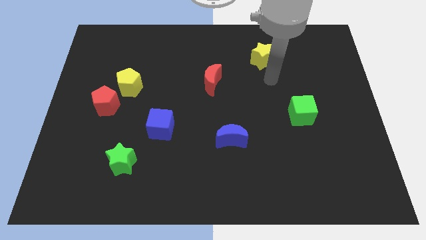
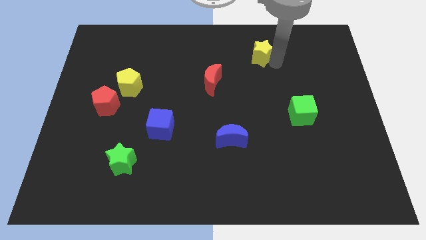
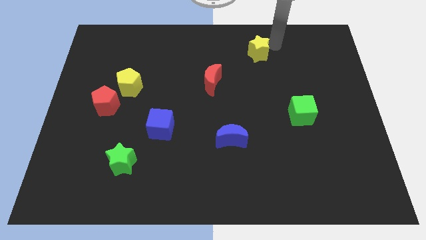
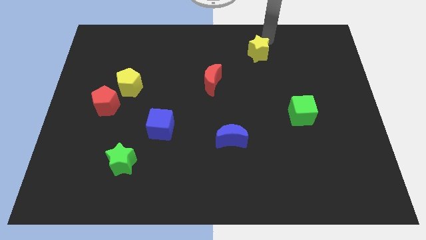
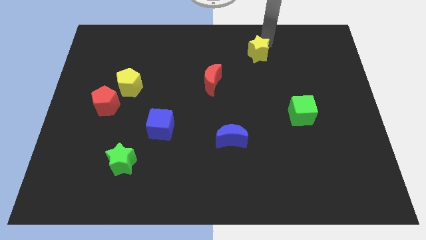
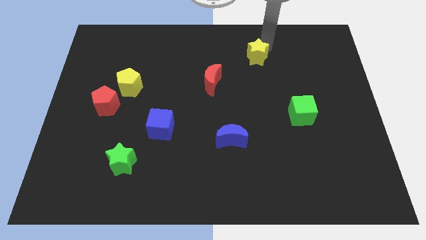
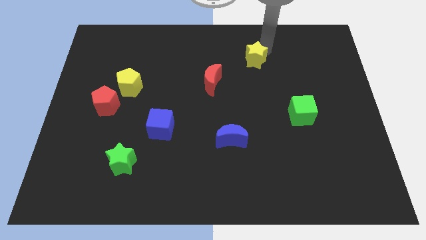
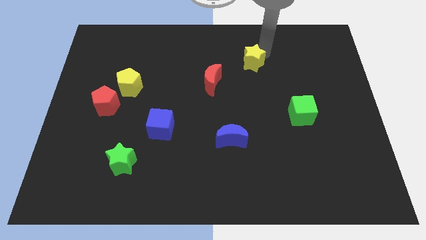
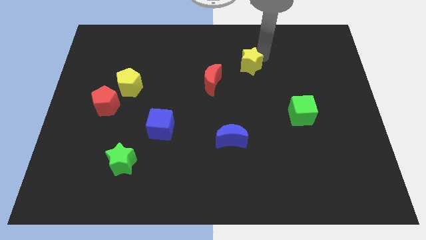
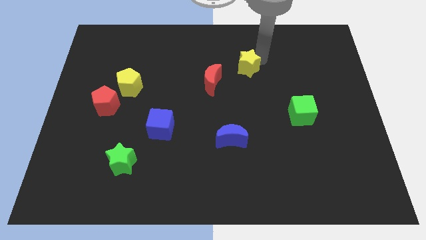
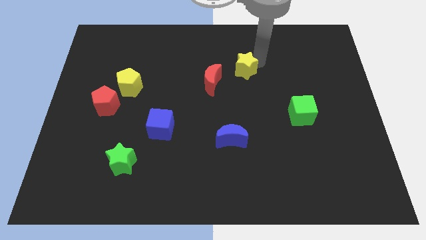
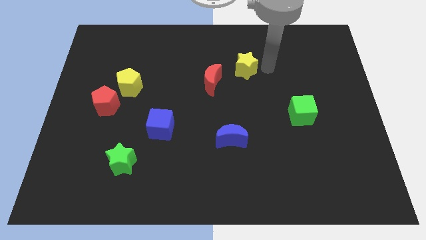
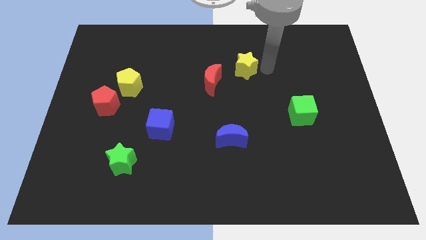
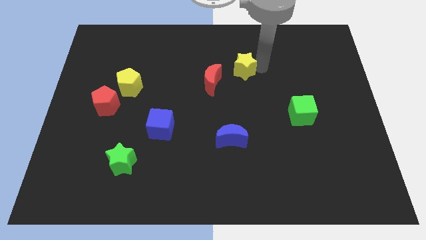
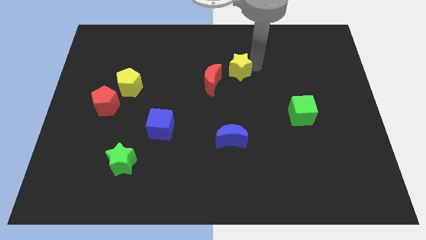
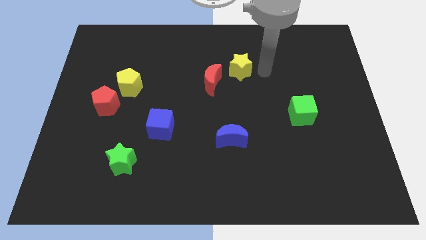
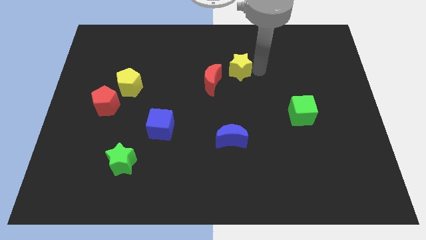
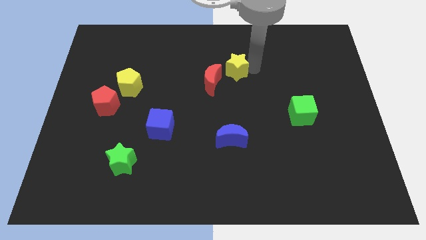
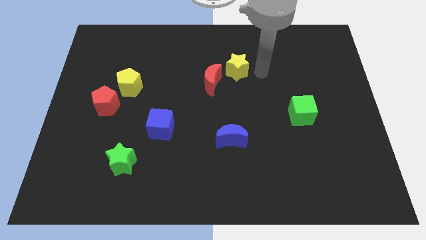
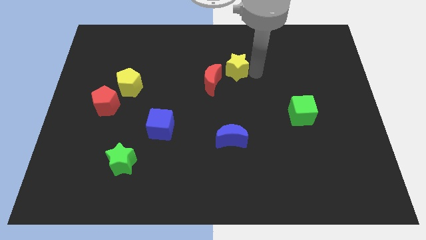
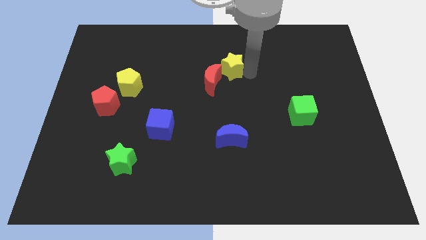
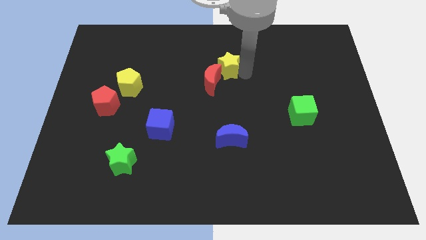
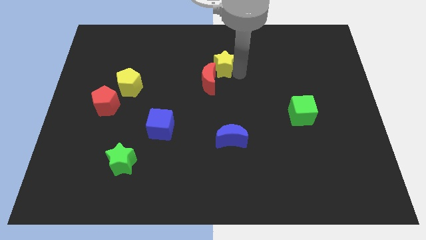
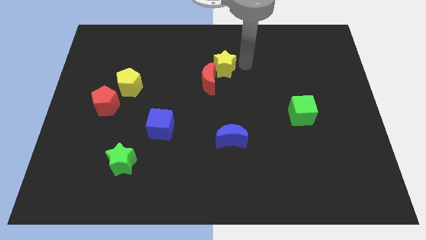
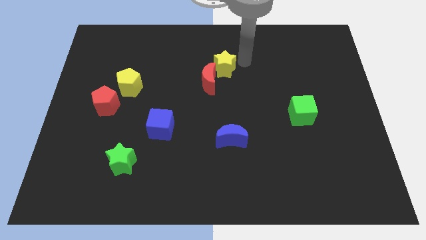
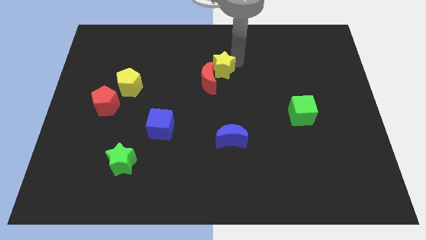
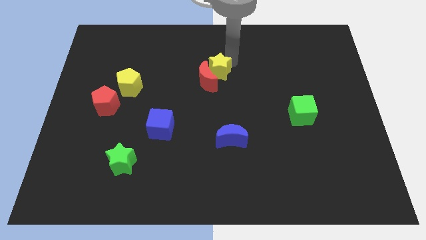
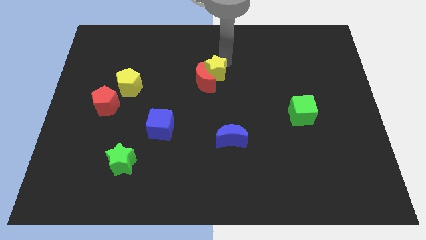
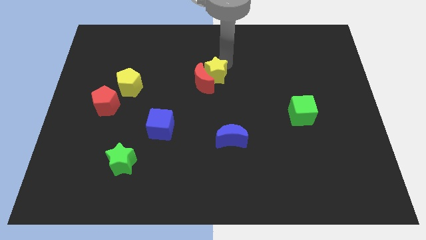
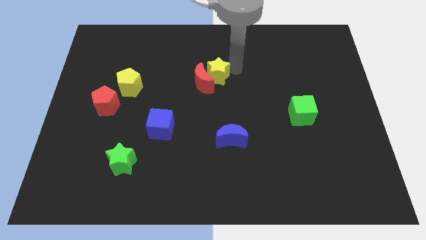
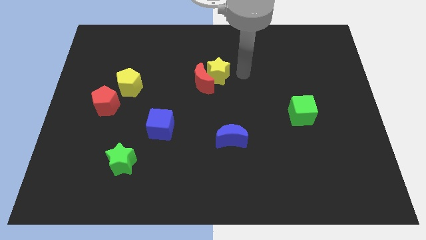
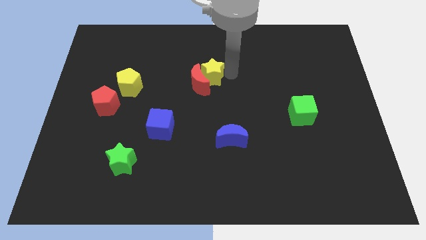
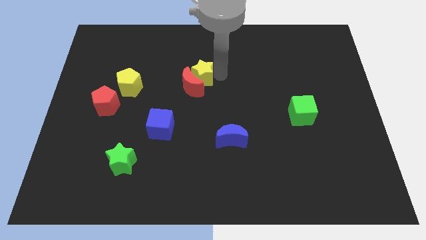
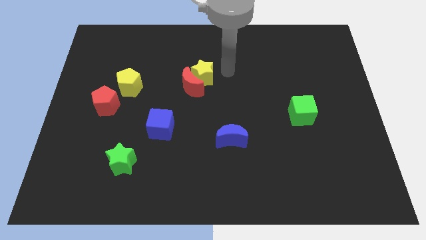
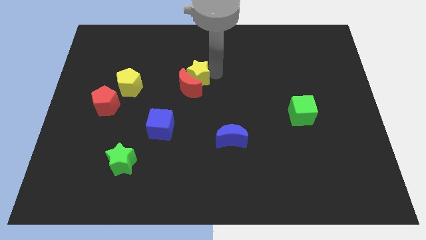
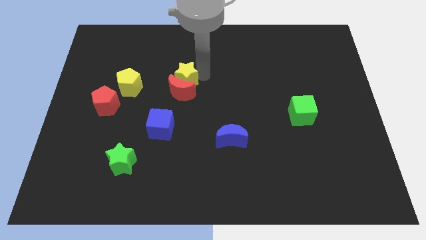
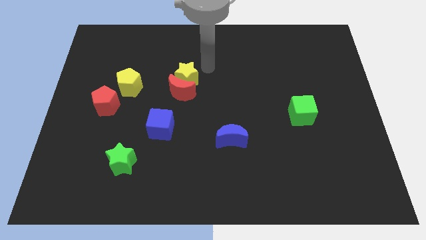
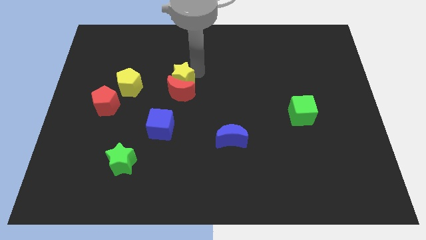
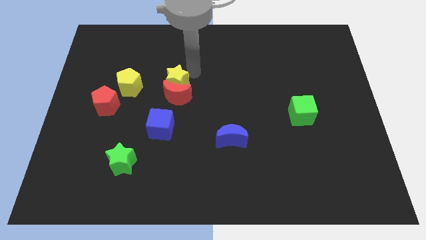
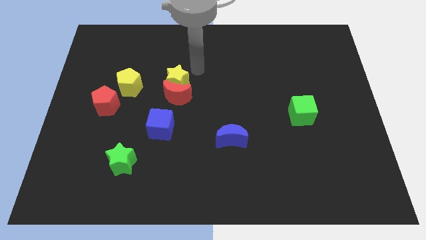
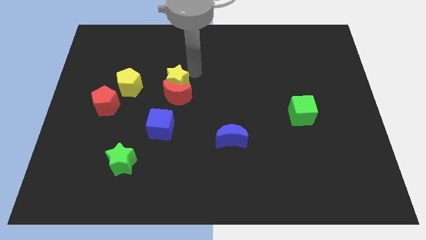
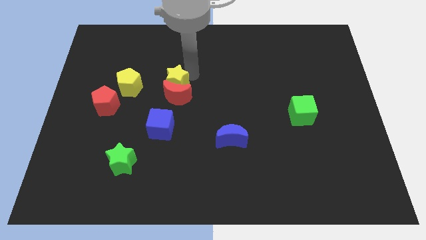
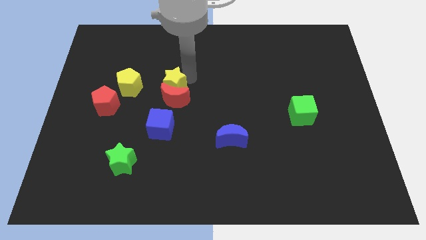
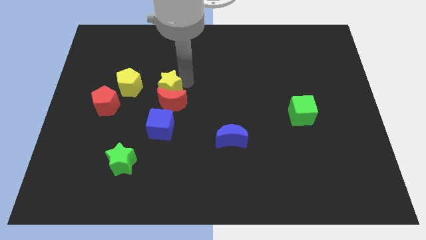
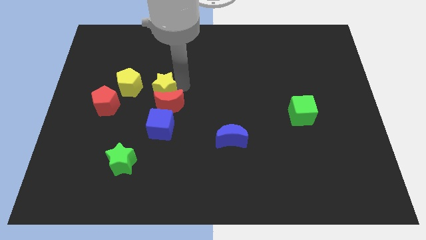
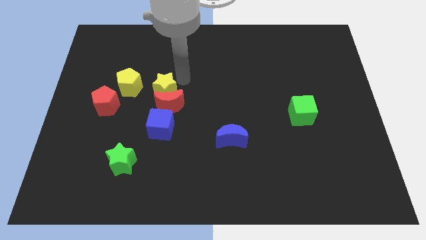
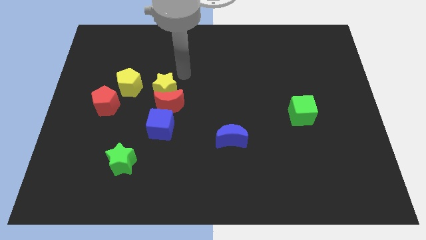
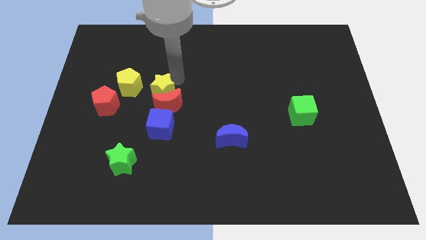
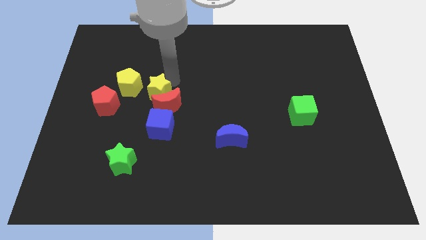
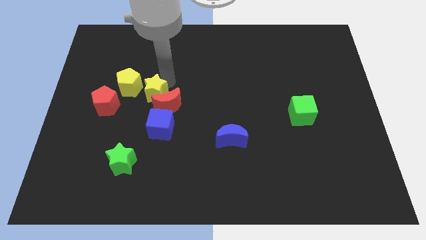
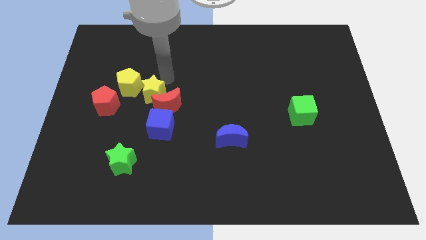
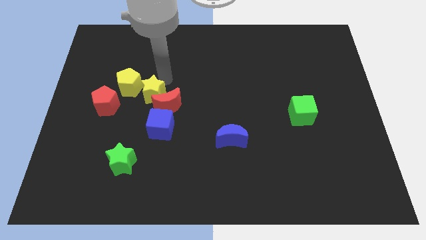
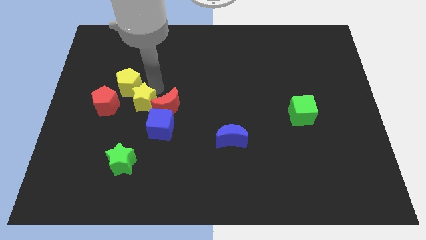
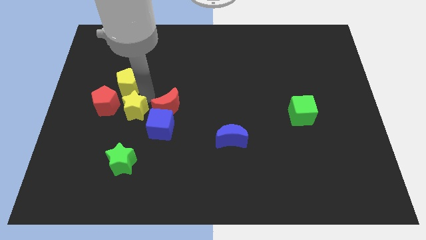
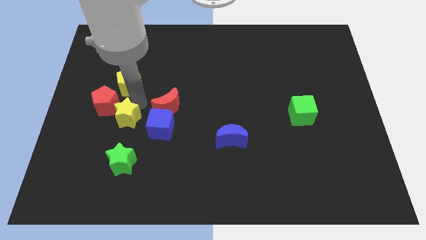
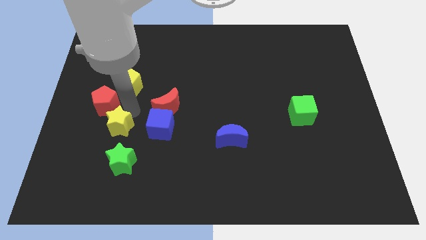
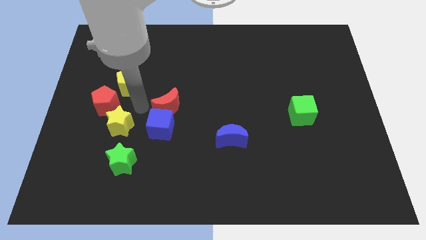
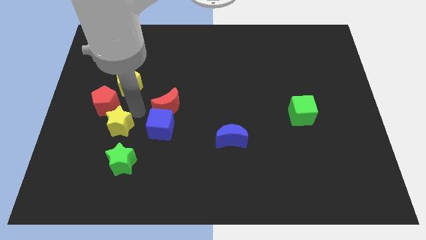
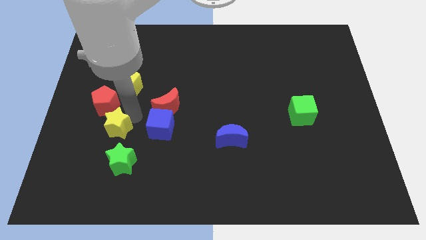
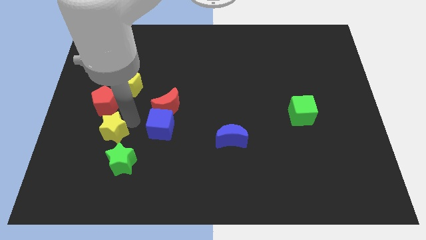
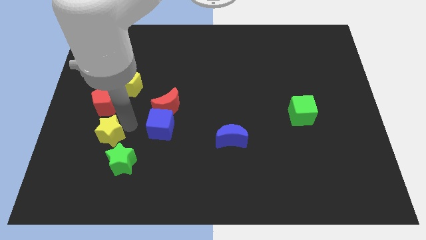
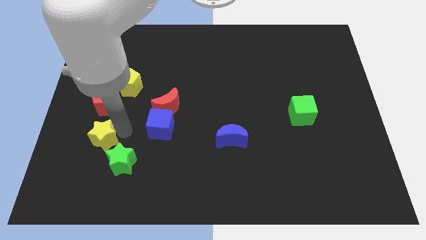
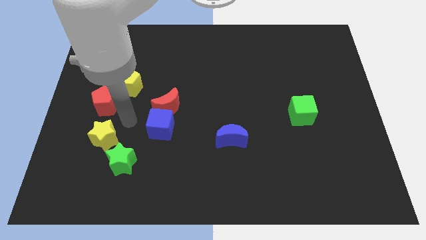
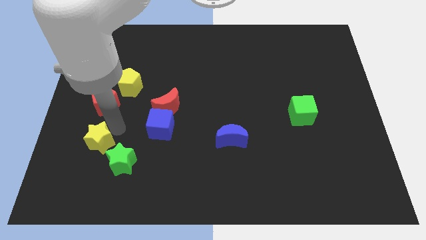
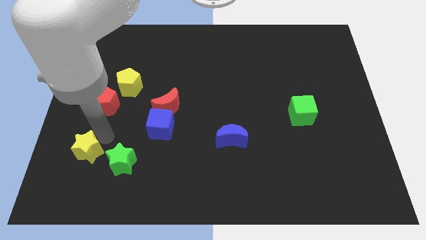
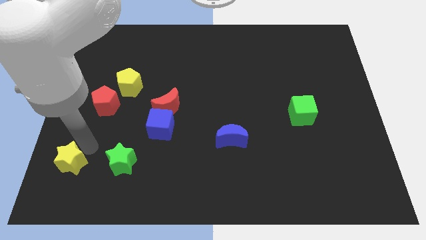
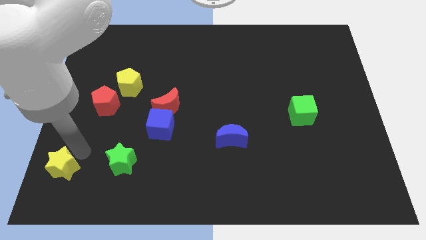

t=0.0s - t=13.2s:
push the yellow star to the bottom left of the board

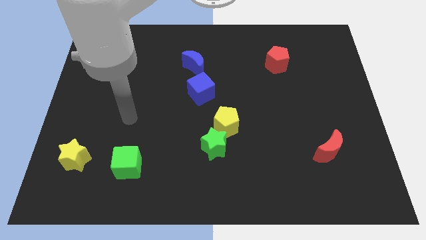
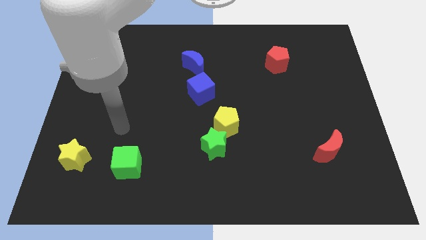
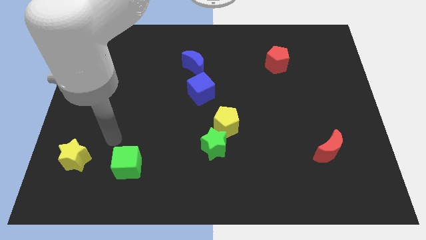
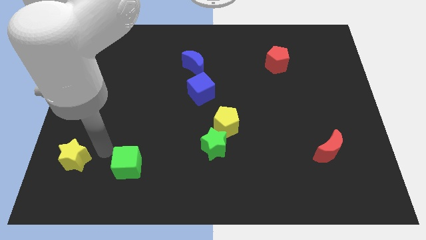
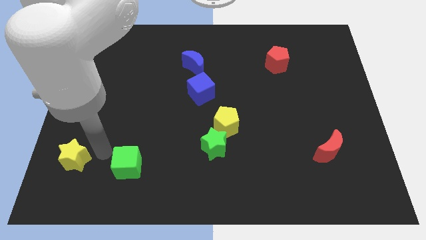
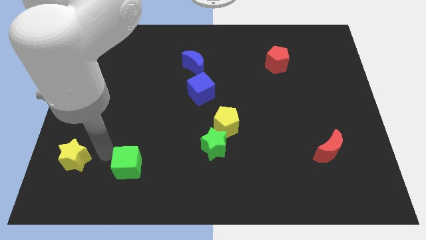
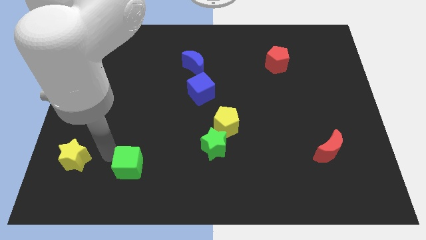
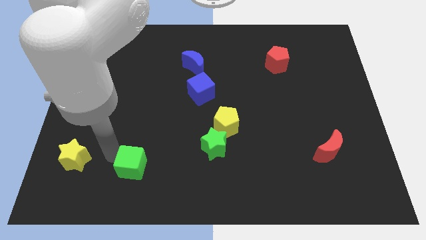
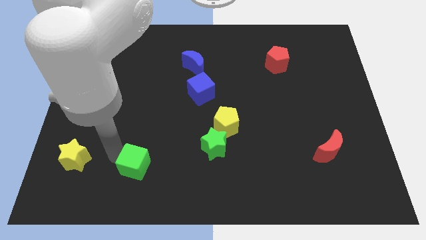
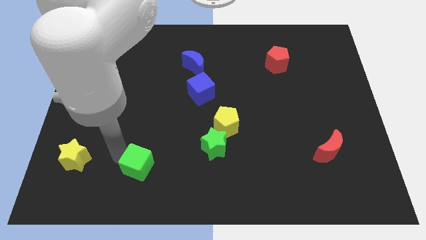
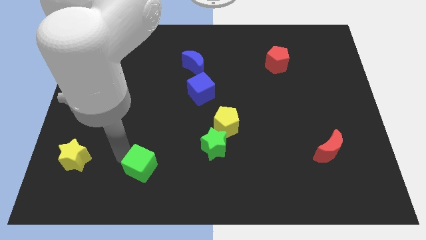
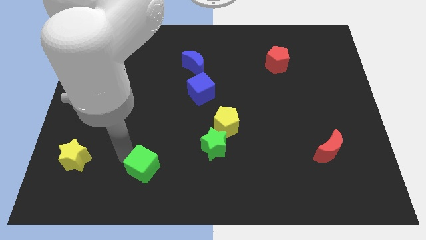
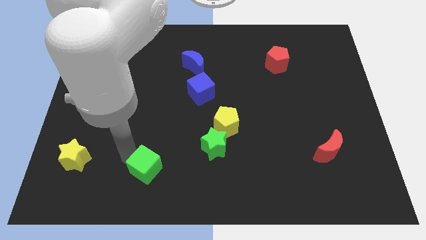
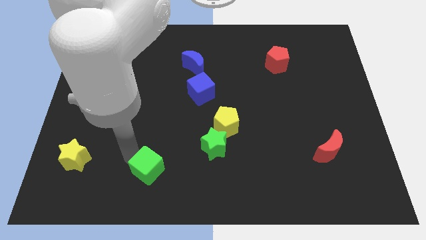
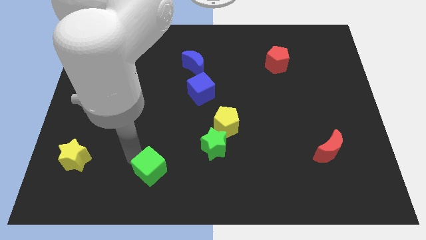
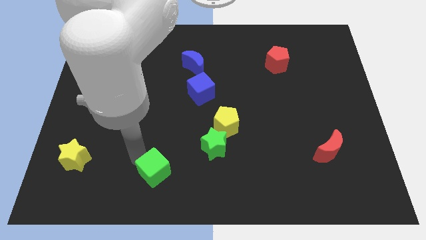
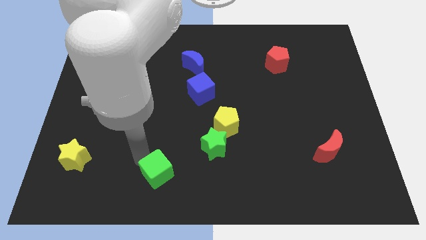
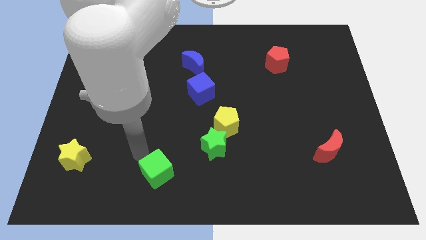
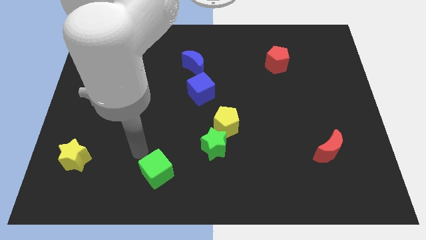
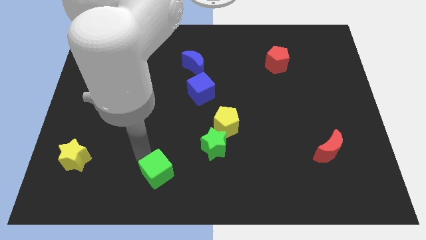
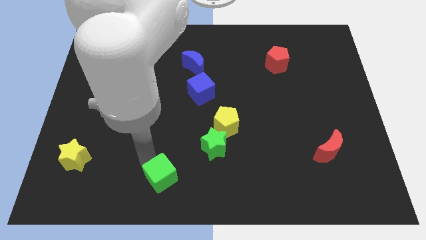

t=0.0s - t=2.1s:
put the green cube to the bottom
